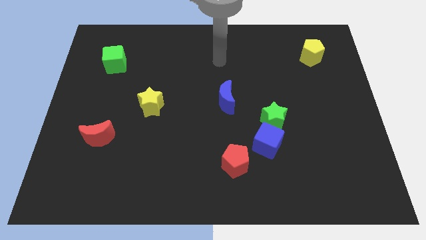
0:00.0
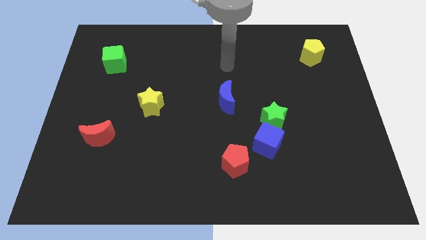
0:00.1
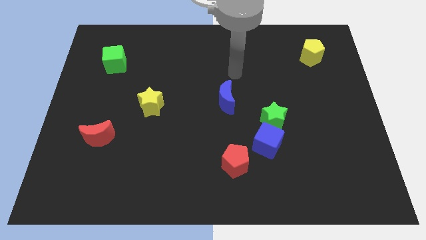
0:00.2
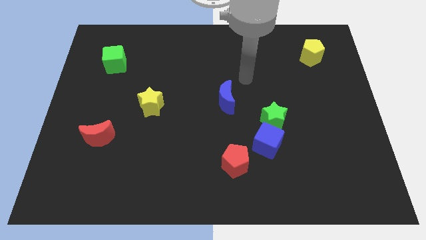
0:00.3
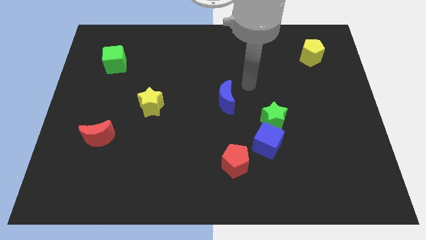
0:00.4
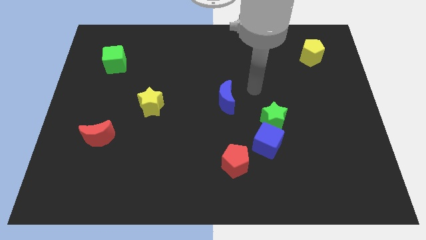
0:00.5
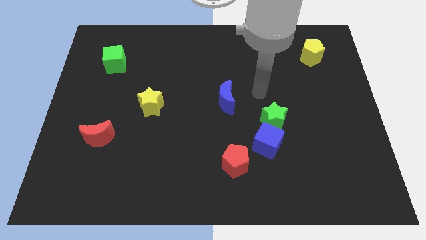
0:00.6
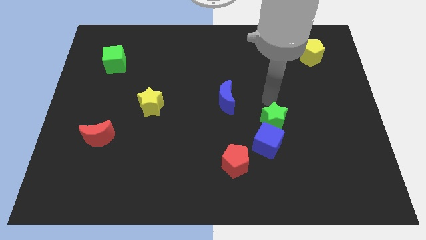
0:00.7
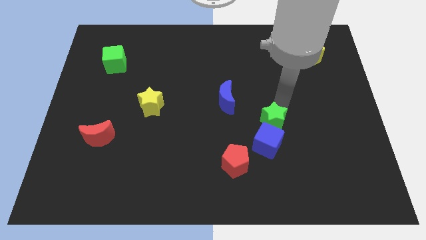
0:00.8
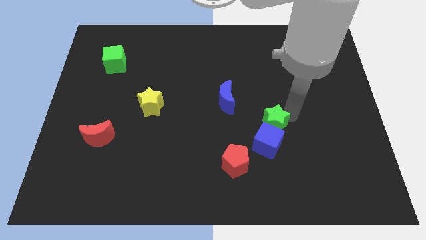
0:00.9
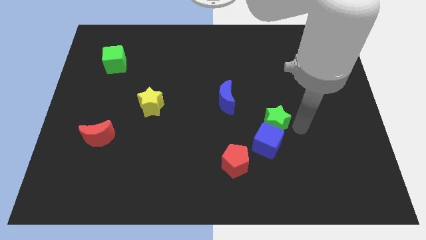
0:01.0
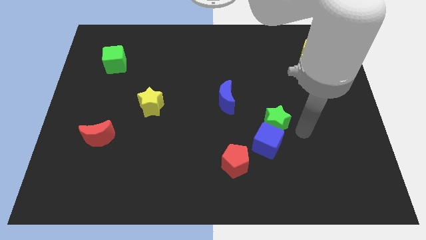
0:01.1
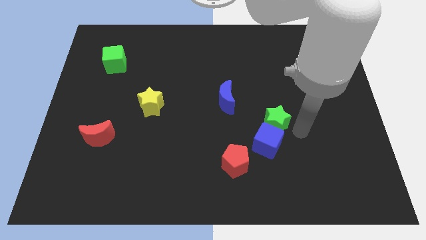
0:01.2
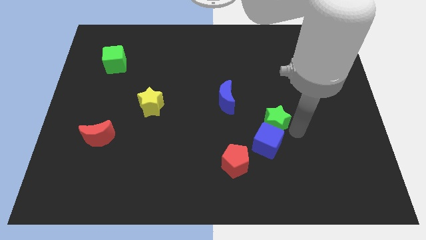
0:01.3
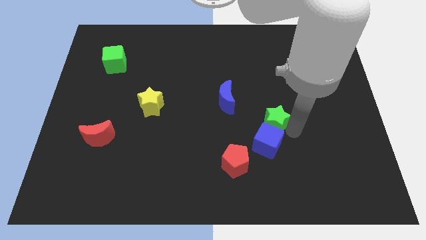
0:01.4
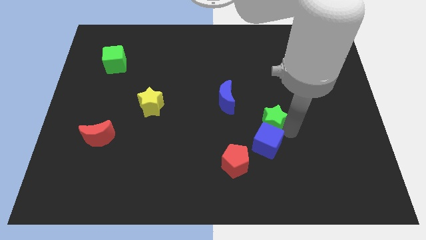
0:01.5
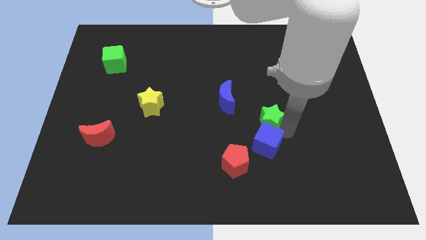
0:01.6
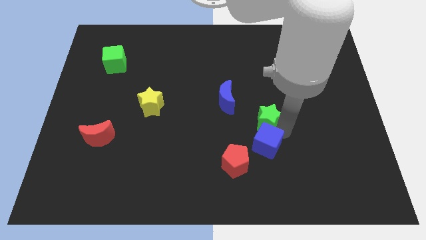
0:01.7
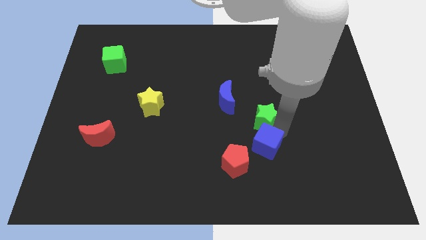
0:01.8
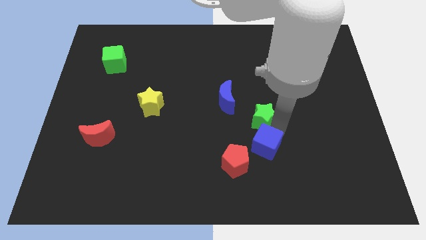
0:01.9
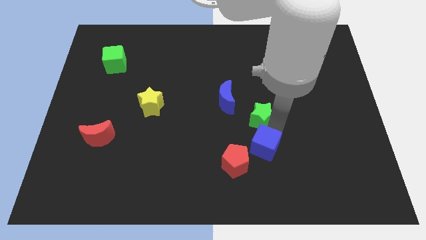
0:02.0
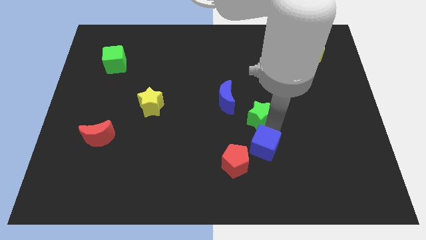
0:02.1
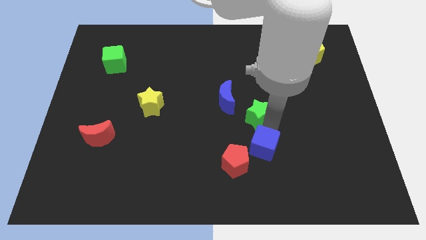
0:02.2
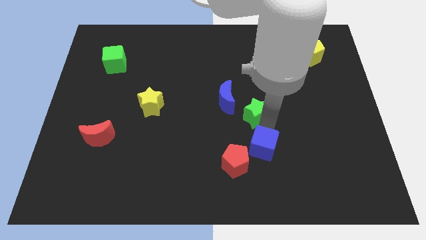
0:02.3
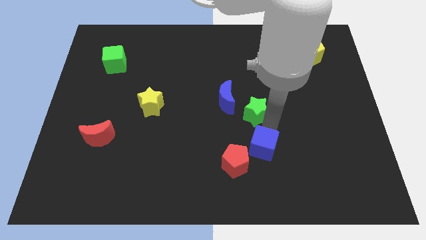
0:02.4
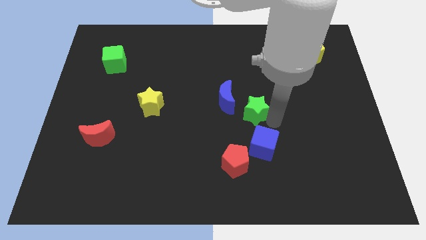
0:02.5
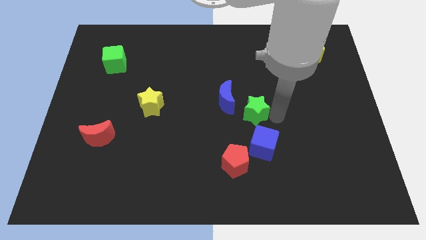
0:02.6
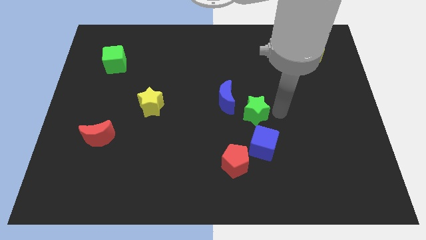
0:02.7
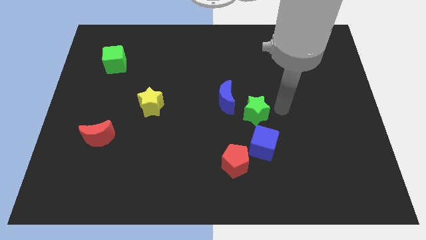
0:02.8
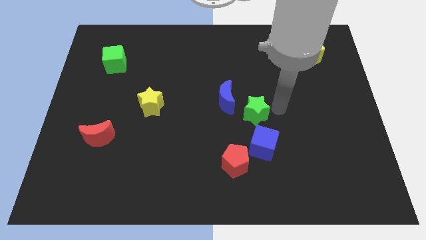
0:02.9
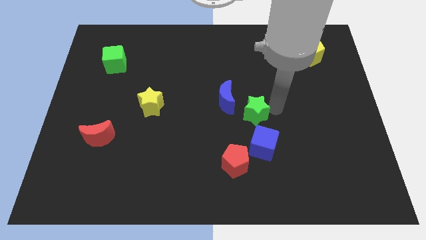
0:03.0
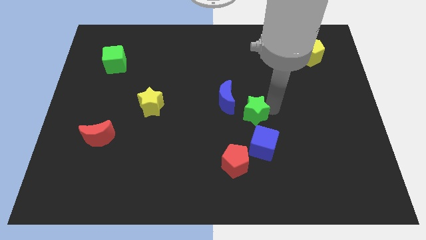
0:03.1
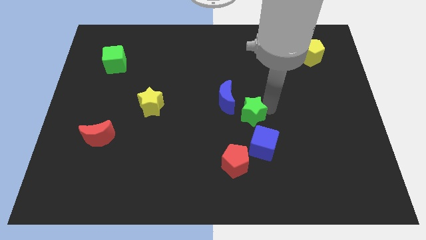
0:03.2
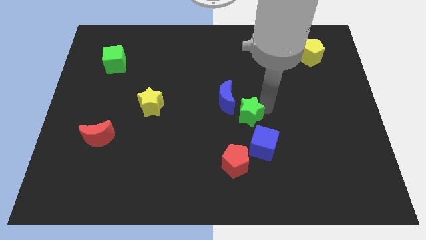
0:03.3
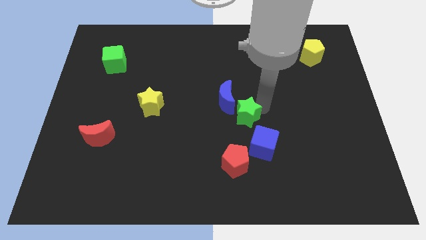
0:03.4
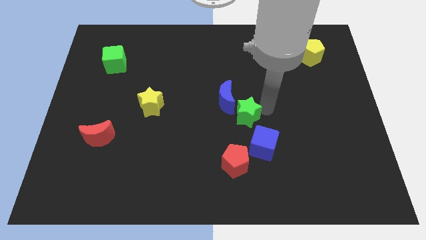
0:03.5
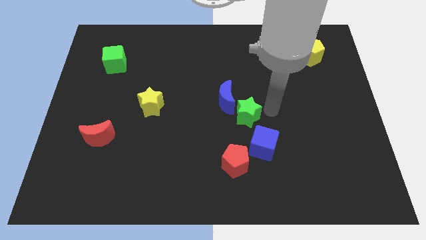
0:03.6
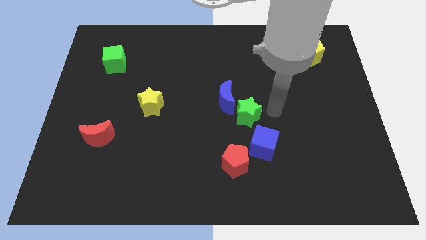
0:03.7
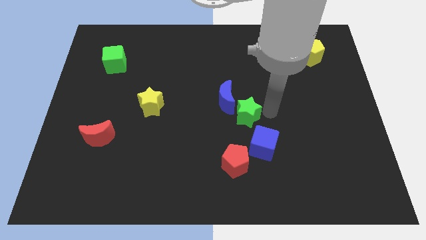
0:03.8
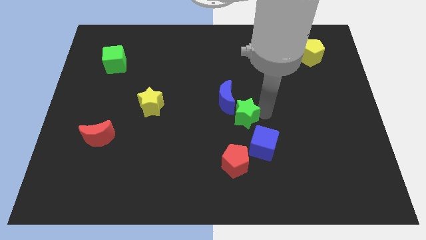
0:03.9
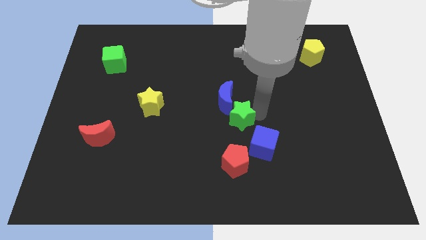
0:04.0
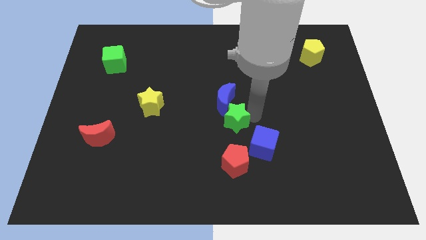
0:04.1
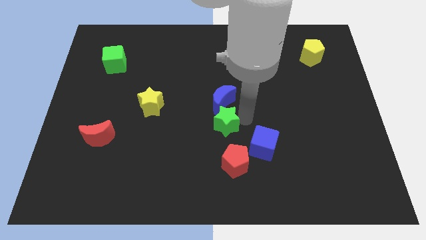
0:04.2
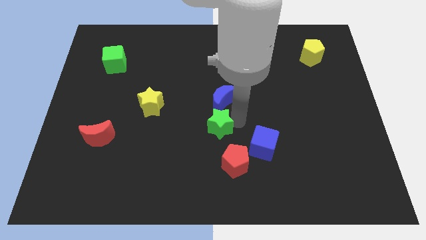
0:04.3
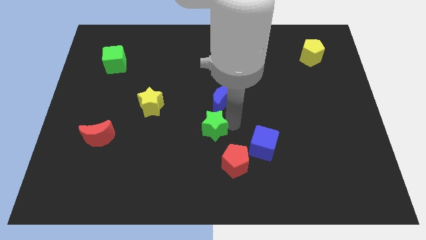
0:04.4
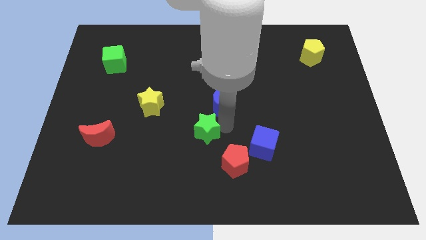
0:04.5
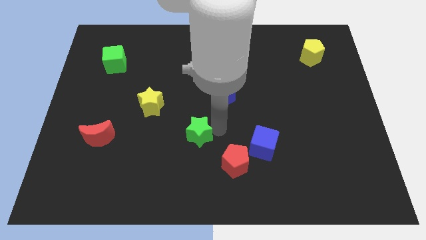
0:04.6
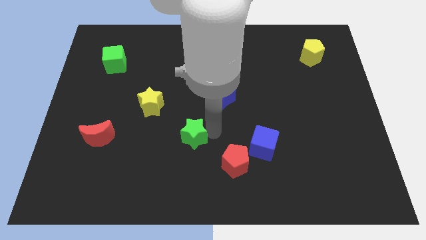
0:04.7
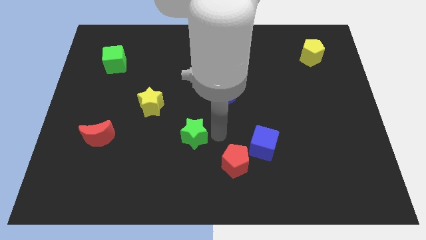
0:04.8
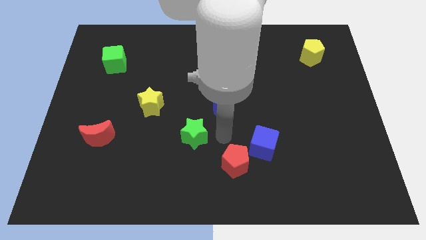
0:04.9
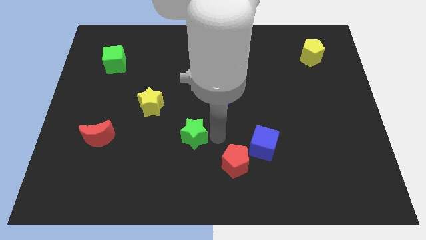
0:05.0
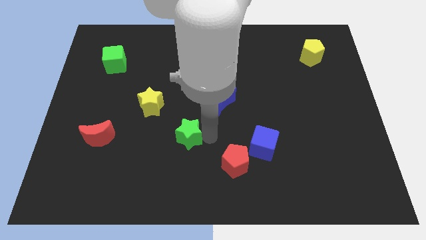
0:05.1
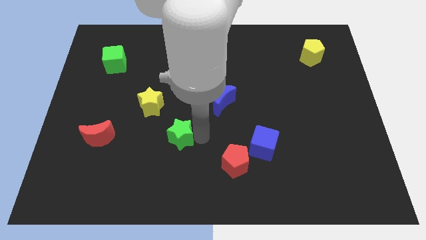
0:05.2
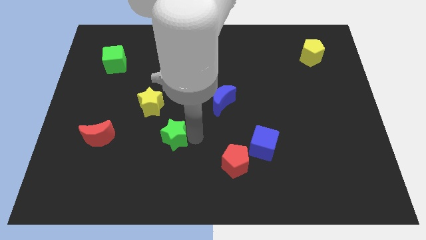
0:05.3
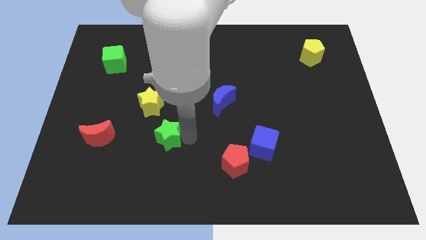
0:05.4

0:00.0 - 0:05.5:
move the green star to the bottom of the yellow star

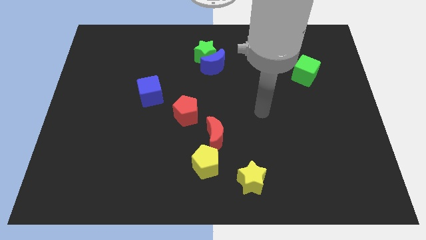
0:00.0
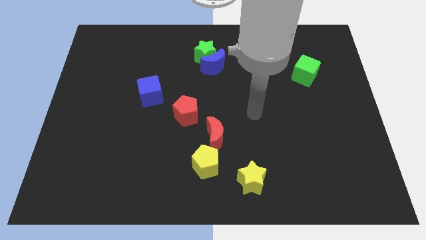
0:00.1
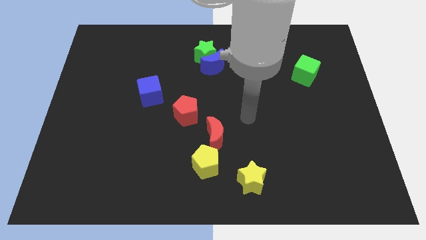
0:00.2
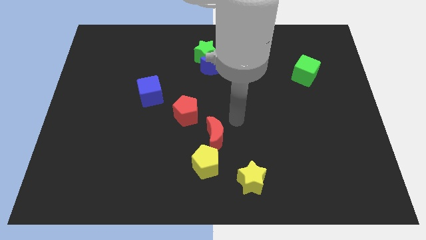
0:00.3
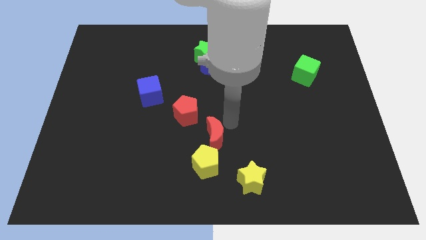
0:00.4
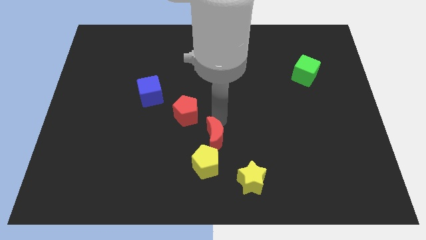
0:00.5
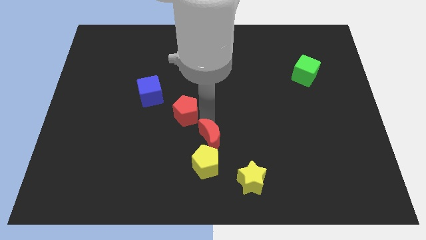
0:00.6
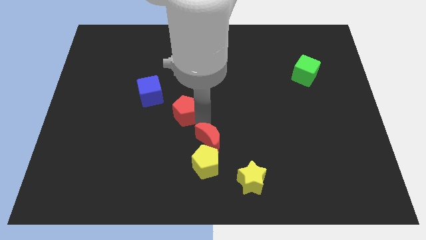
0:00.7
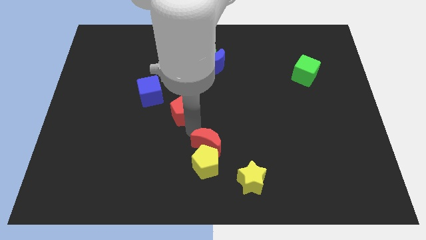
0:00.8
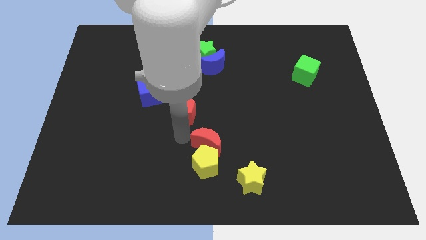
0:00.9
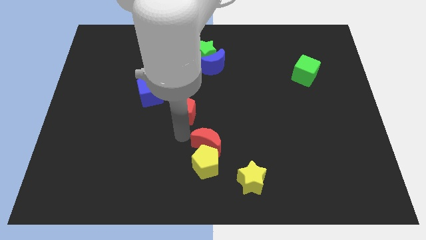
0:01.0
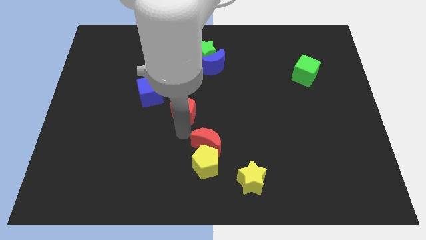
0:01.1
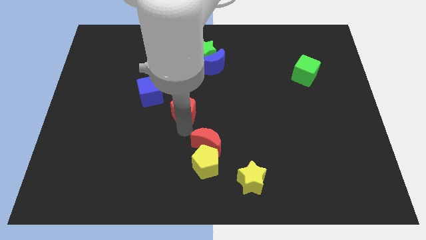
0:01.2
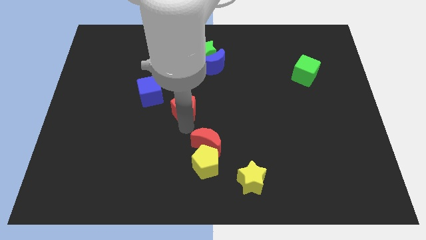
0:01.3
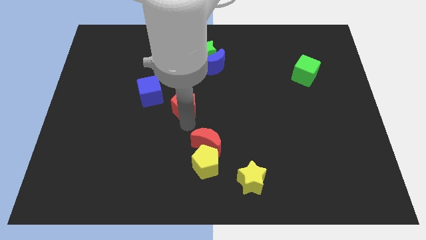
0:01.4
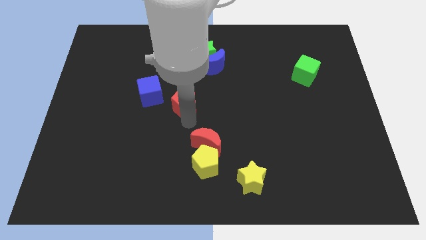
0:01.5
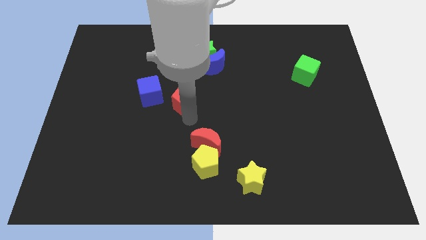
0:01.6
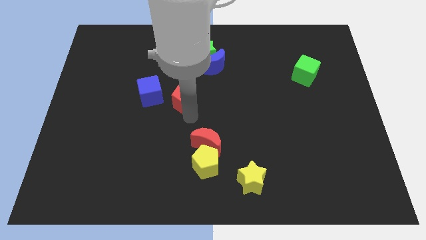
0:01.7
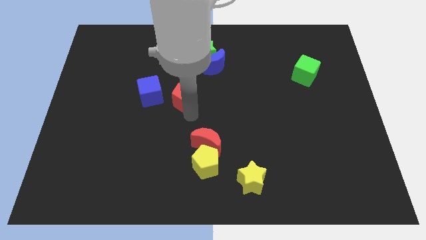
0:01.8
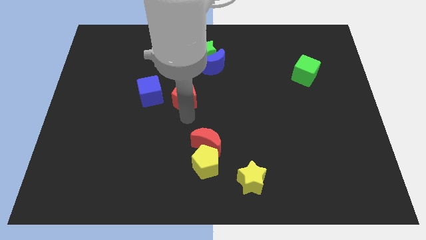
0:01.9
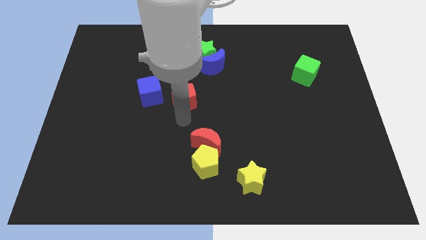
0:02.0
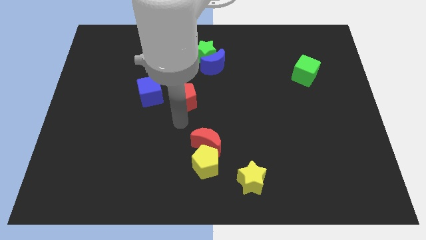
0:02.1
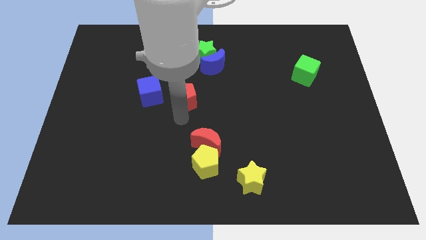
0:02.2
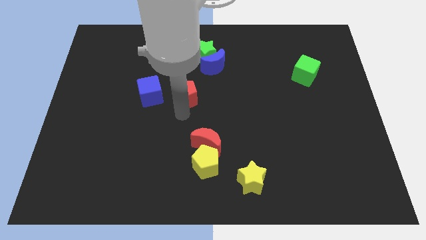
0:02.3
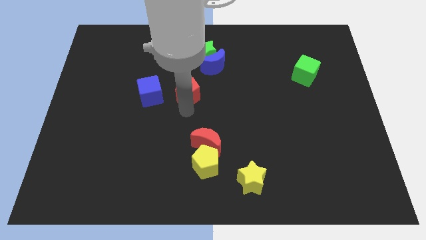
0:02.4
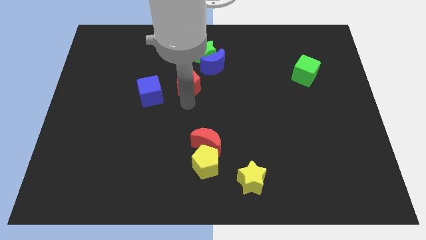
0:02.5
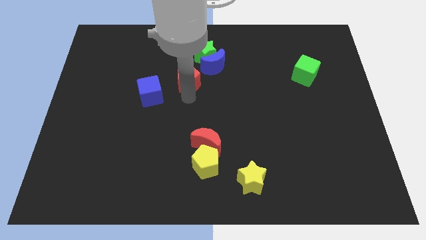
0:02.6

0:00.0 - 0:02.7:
move the red pentagon to the bottom left side of the green star
